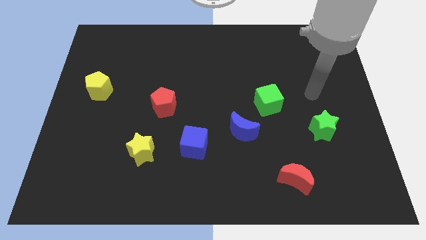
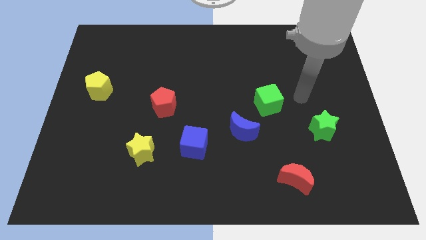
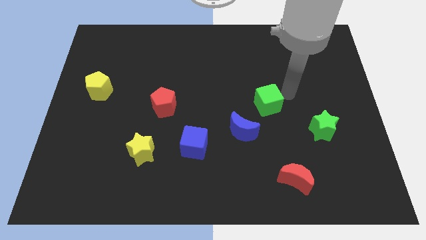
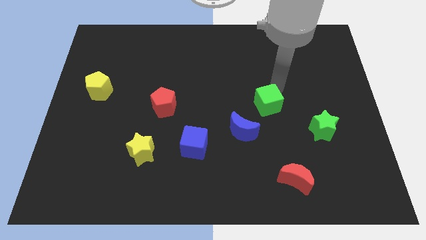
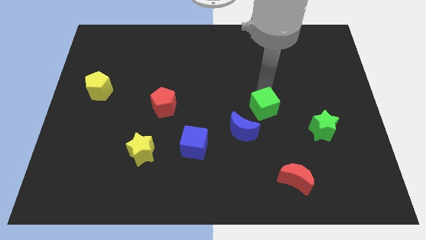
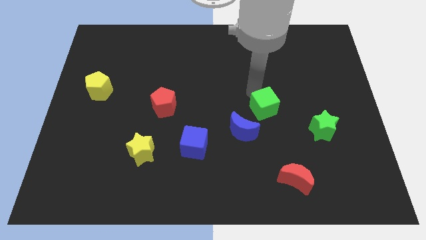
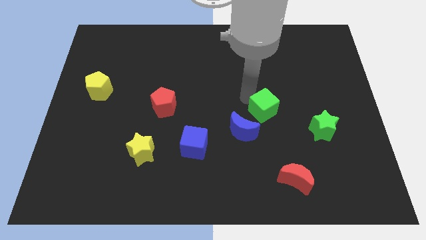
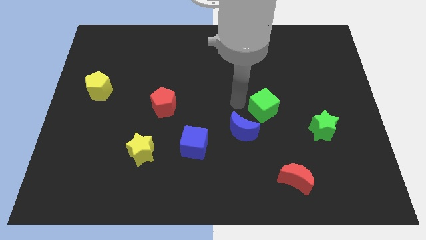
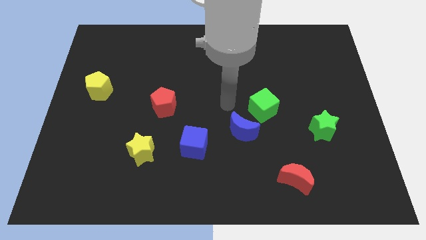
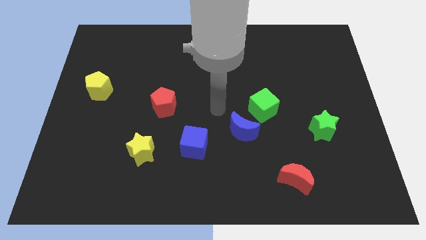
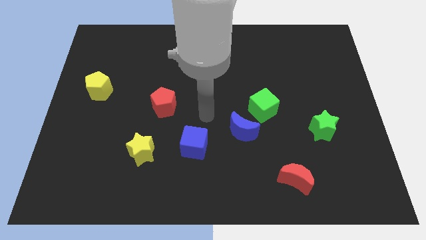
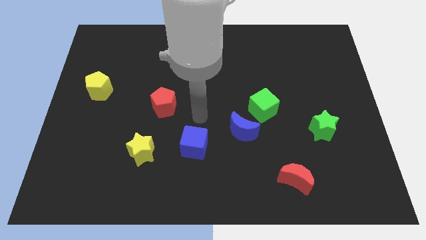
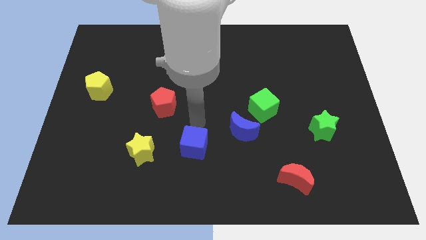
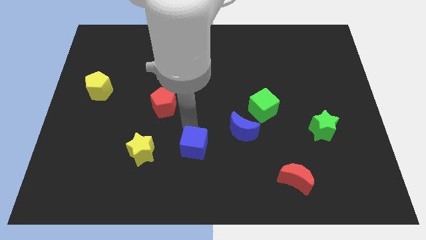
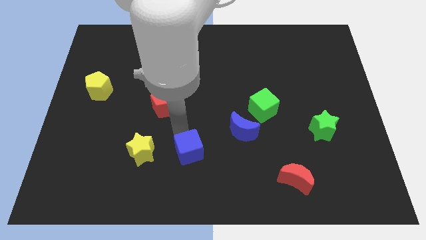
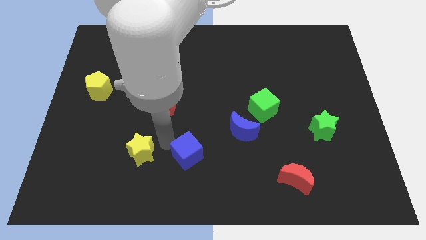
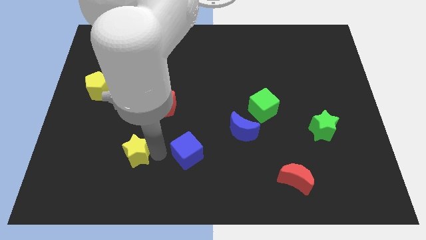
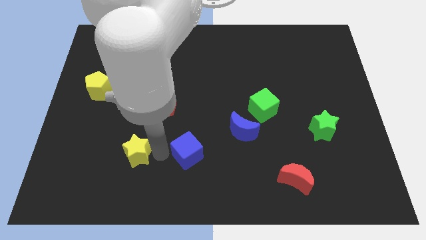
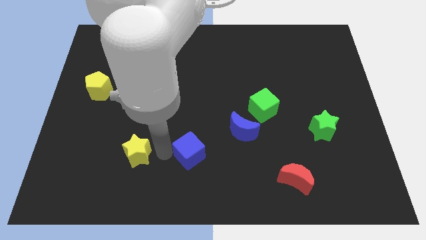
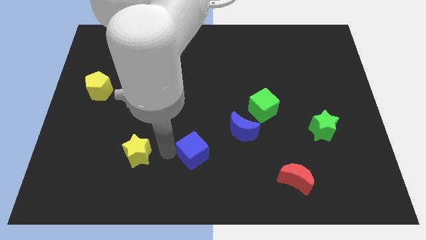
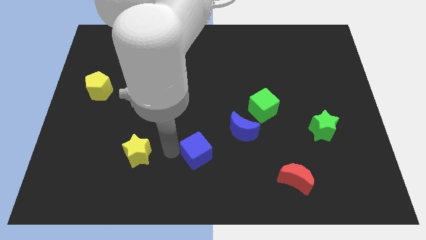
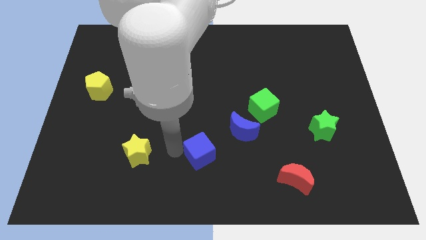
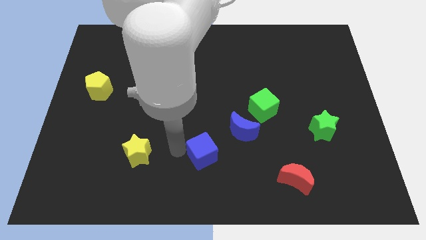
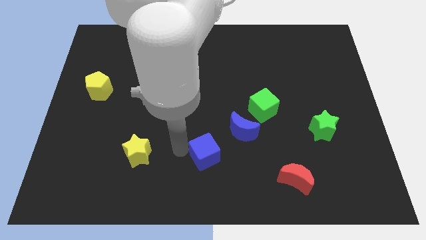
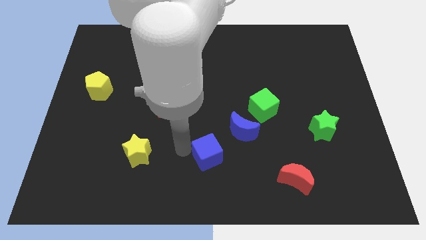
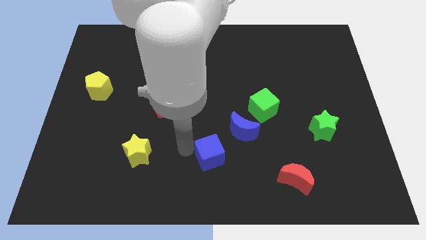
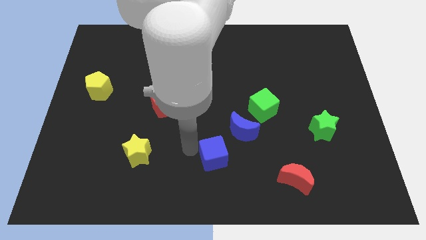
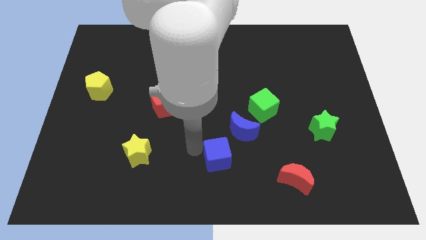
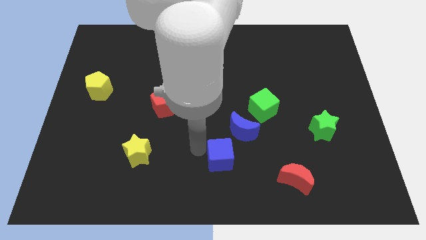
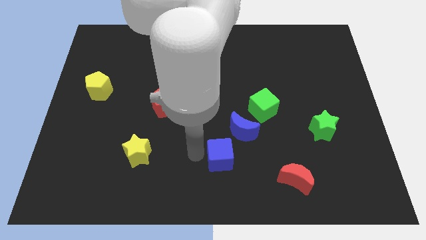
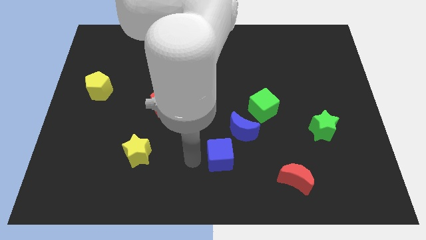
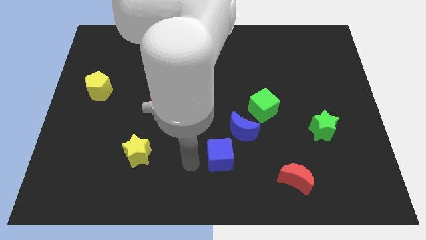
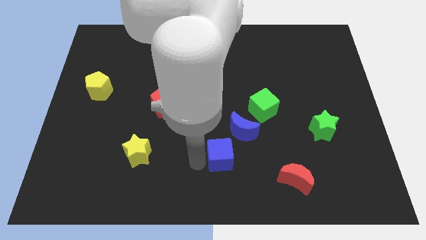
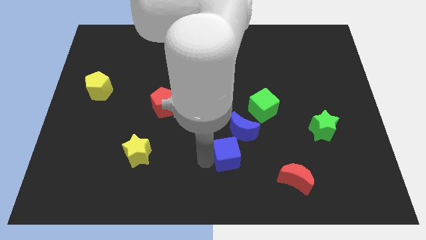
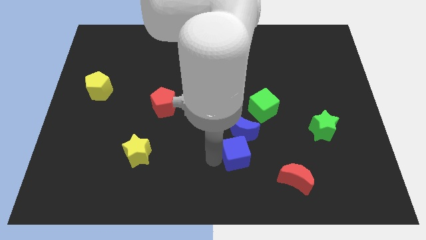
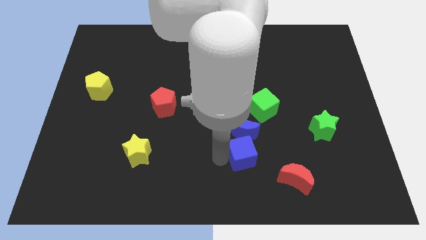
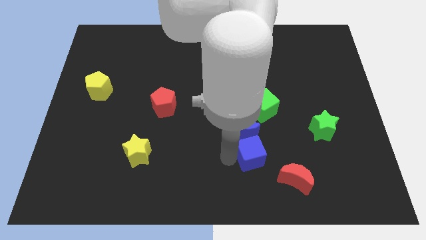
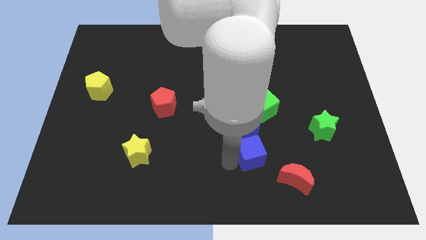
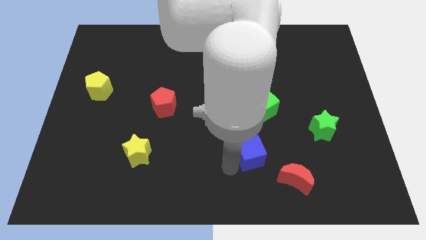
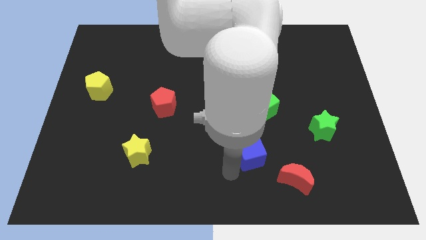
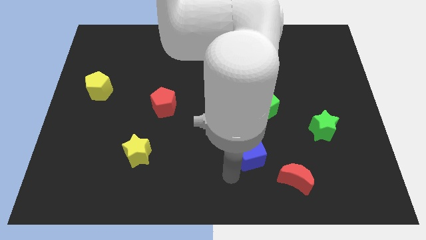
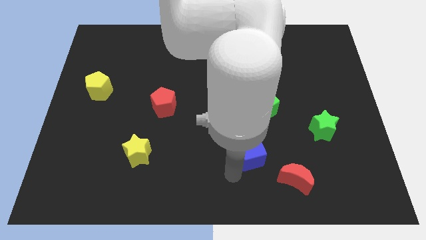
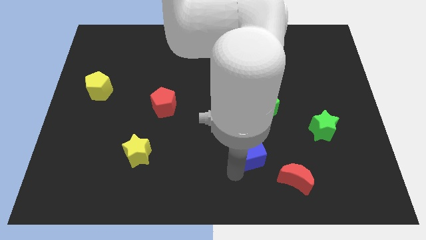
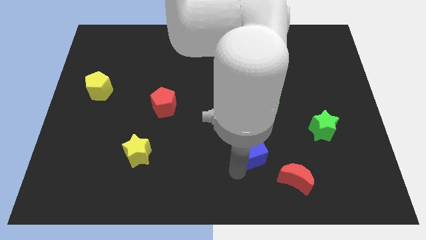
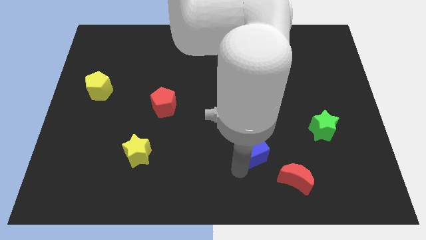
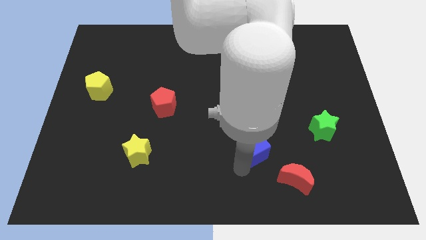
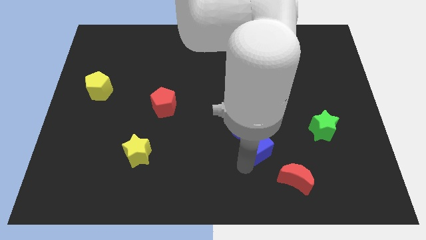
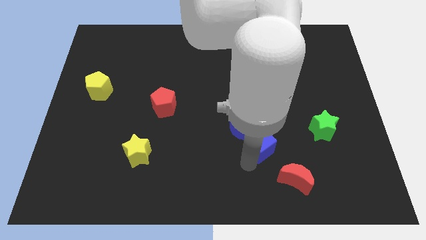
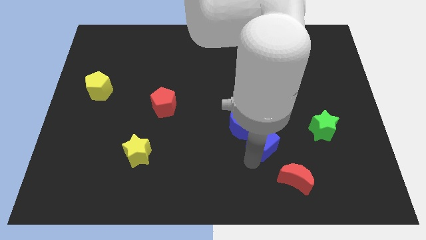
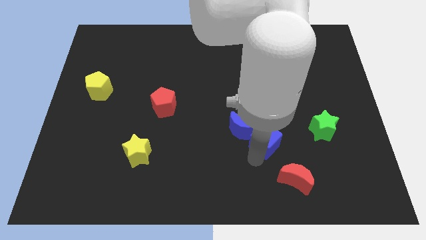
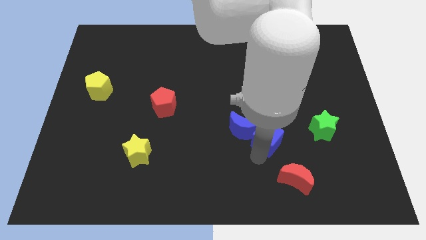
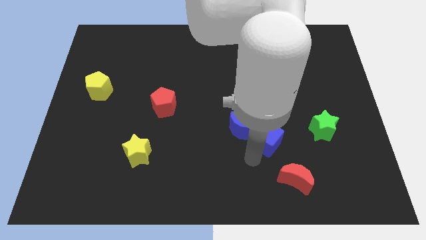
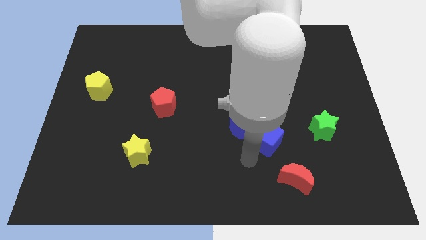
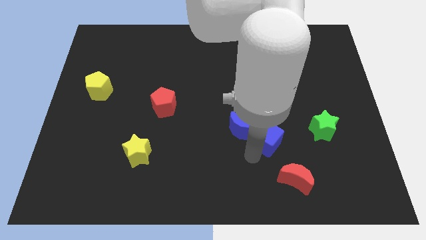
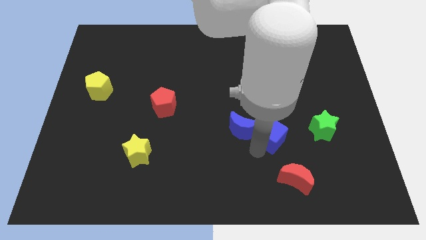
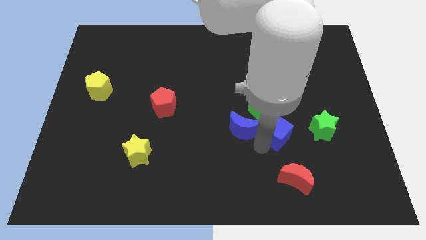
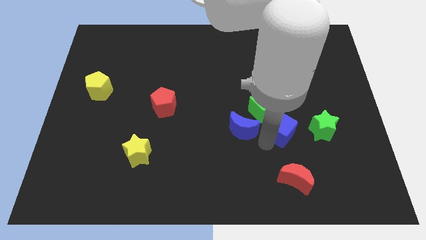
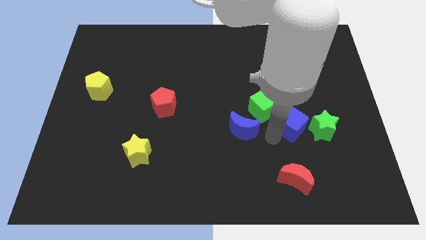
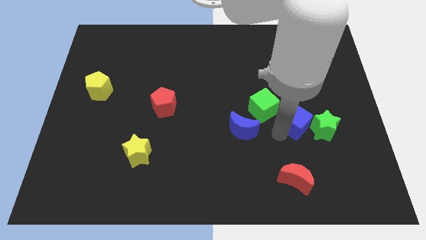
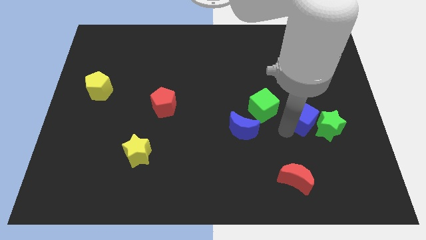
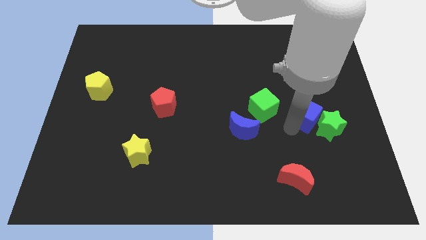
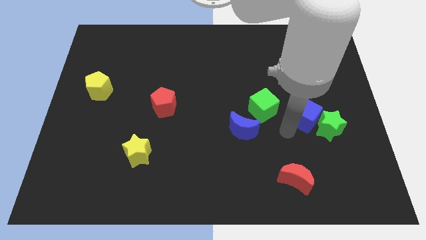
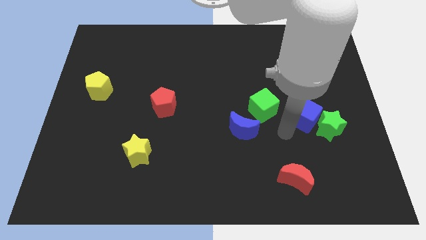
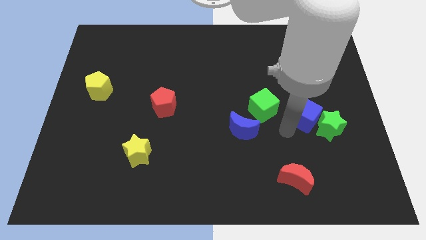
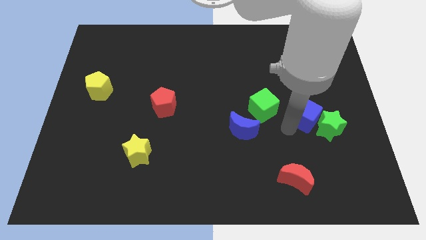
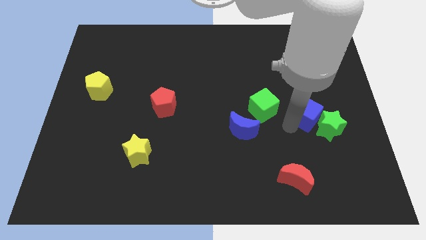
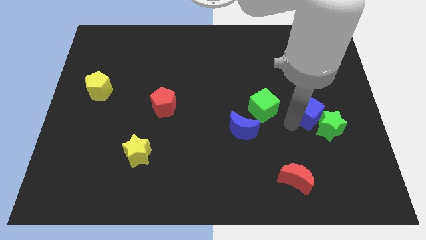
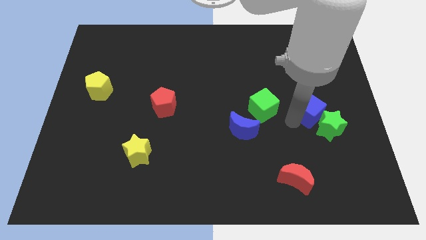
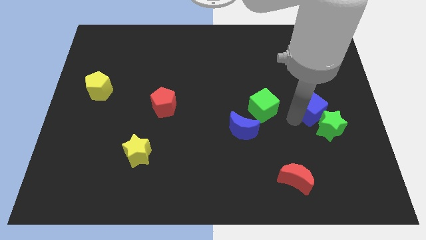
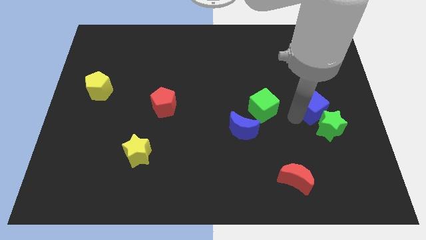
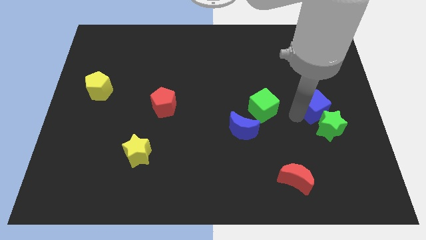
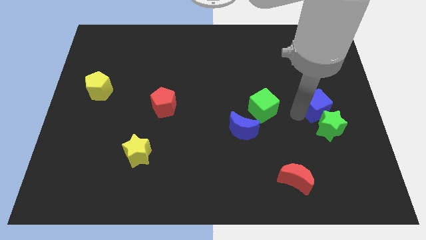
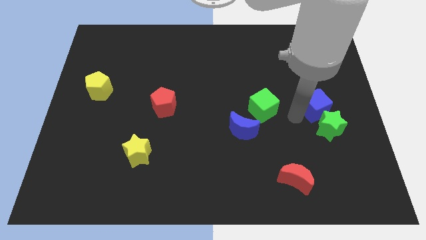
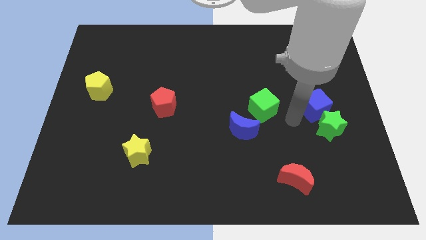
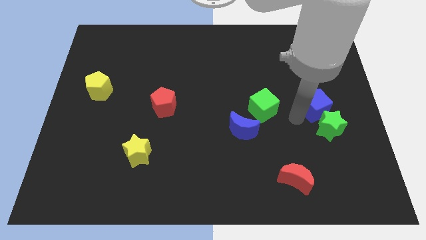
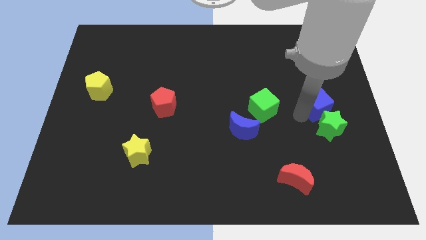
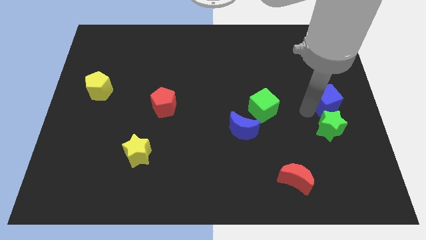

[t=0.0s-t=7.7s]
push the blue cube to the right side

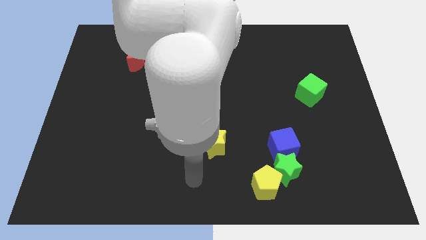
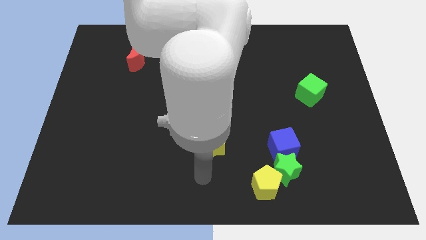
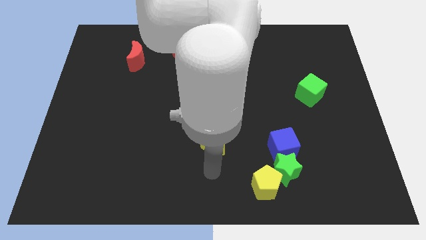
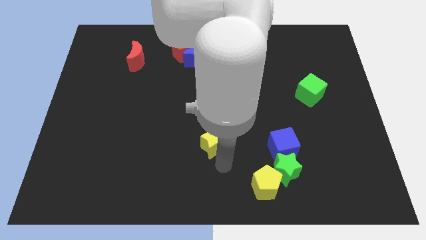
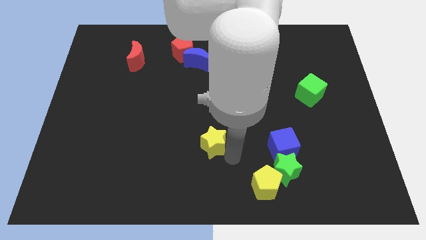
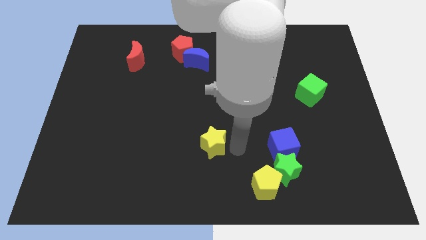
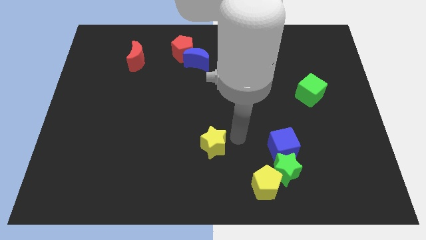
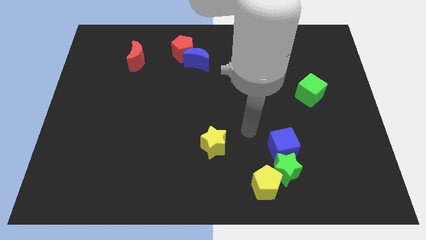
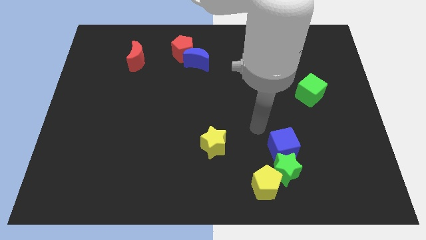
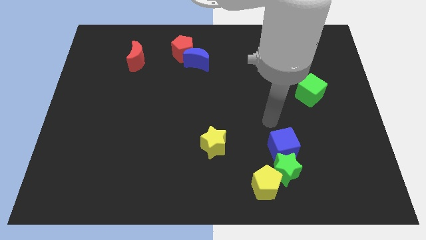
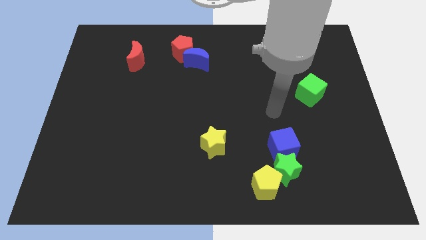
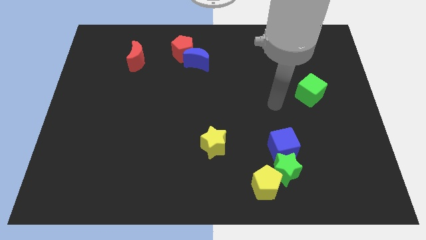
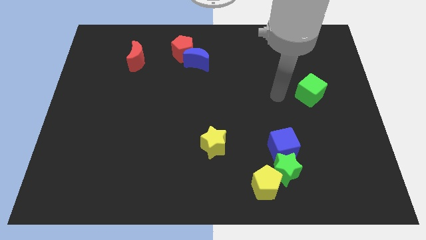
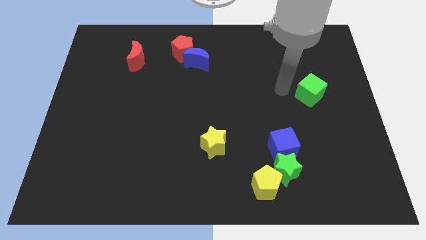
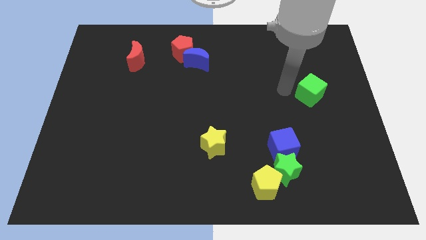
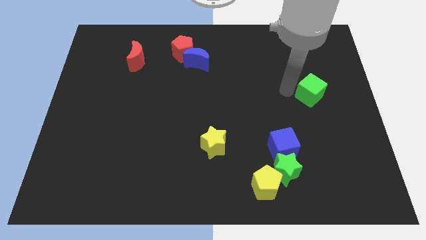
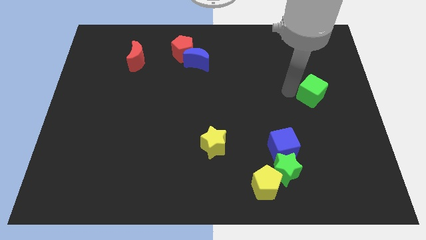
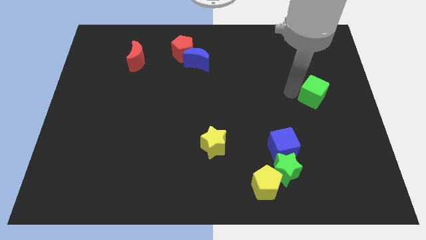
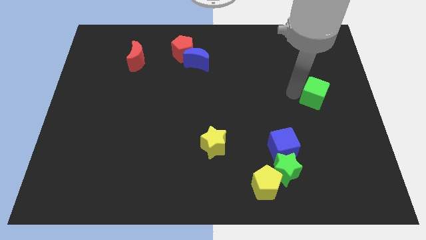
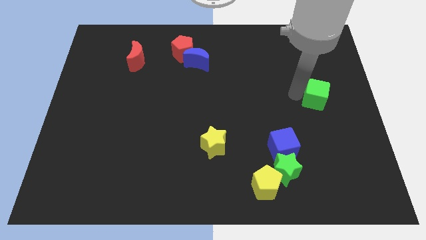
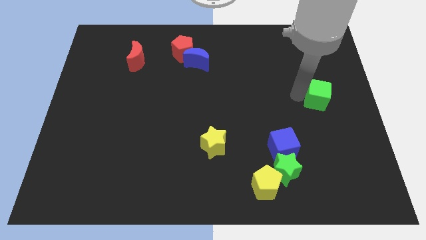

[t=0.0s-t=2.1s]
slide the green cube to the right side of the board
